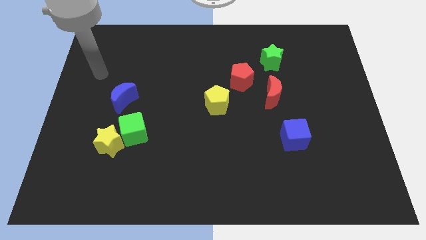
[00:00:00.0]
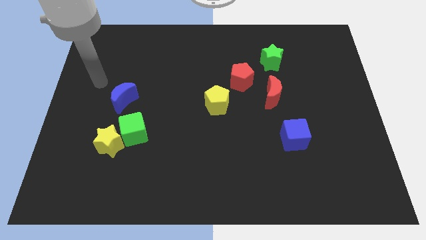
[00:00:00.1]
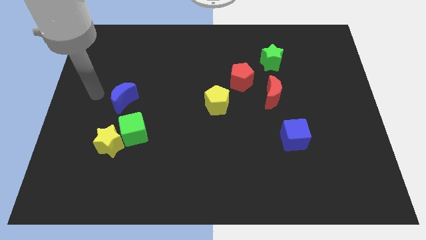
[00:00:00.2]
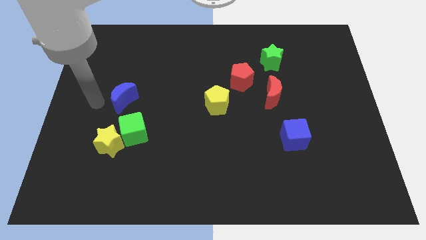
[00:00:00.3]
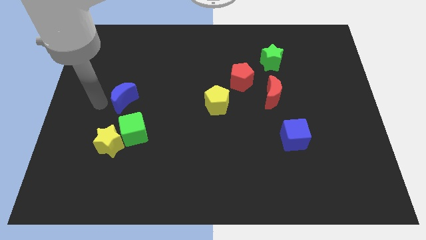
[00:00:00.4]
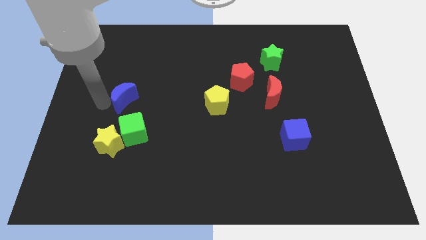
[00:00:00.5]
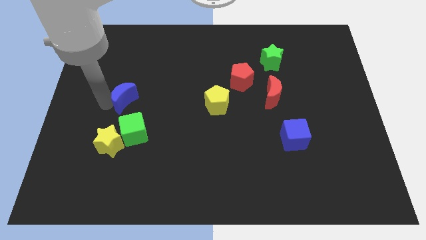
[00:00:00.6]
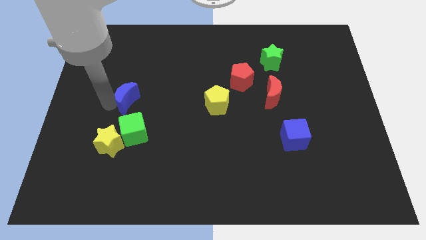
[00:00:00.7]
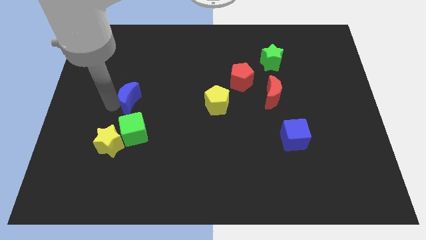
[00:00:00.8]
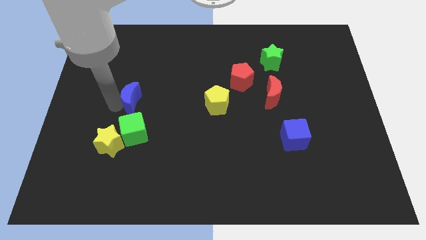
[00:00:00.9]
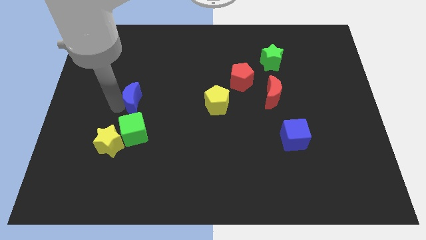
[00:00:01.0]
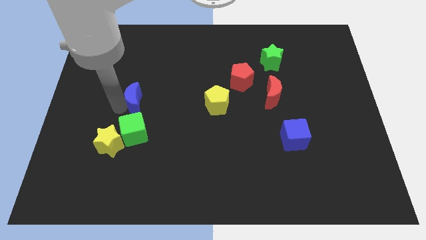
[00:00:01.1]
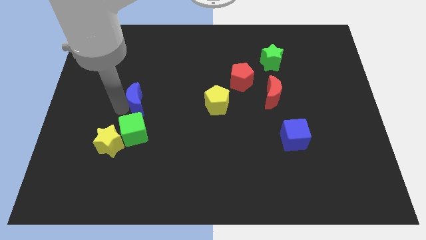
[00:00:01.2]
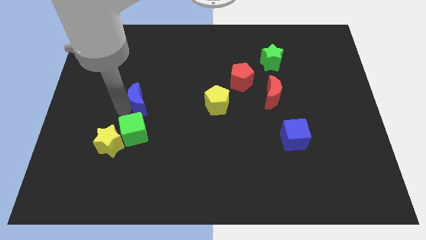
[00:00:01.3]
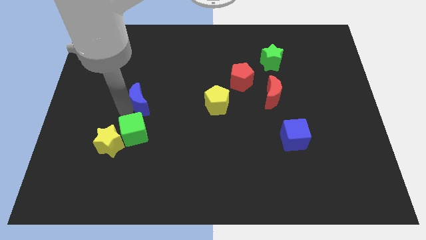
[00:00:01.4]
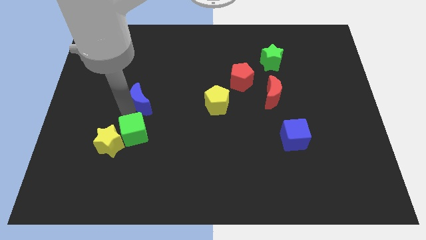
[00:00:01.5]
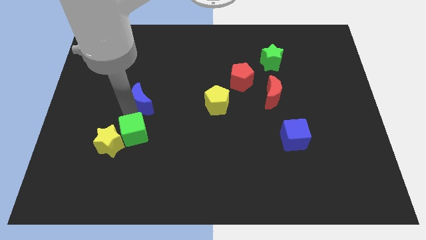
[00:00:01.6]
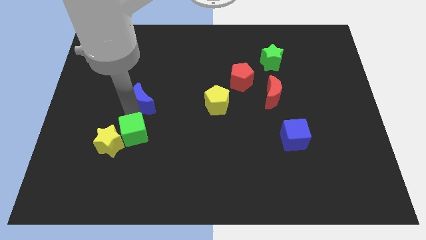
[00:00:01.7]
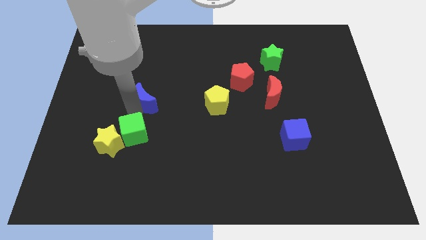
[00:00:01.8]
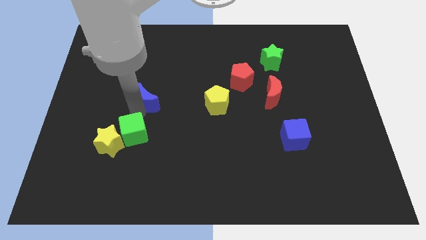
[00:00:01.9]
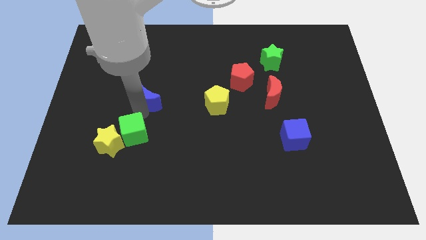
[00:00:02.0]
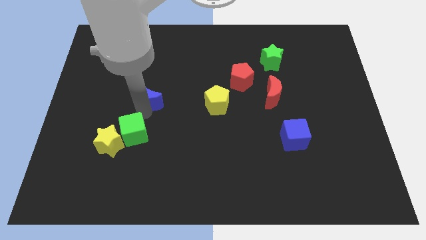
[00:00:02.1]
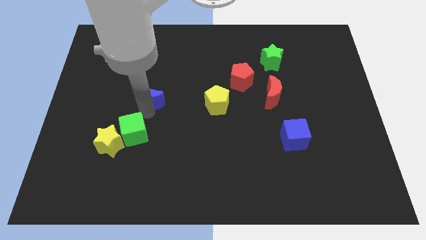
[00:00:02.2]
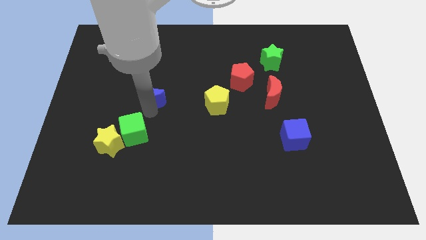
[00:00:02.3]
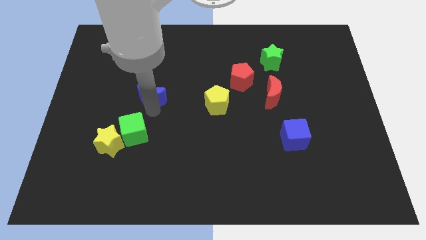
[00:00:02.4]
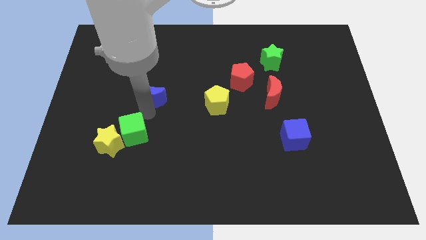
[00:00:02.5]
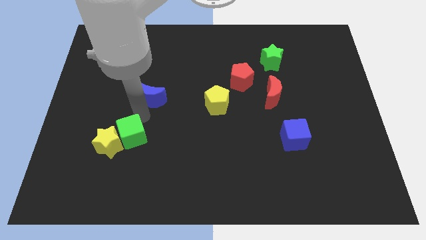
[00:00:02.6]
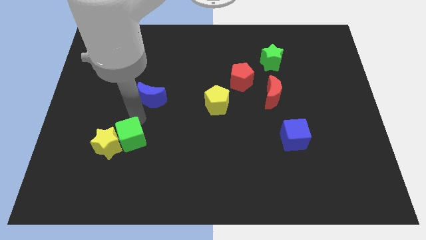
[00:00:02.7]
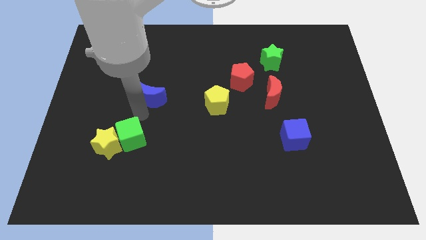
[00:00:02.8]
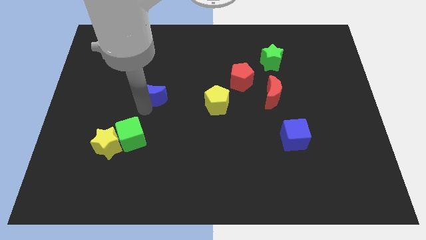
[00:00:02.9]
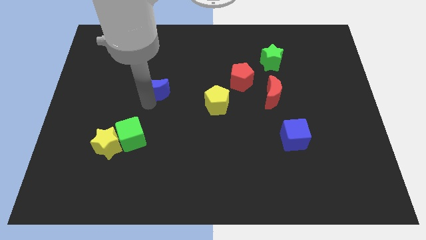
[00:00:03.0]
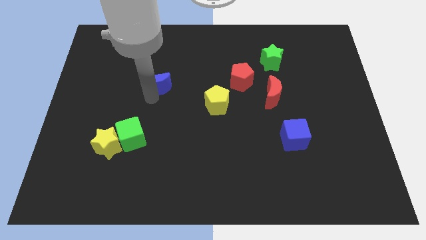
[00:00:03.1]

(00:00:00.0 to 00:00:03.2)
push the blue moon diagonally up and right somewhat

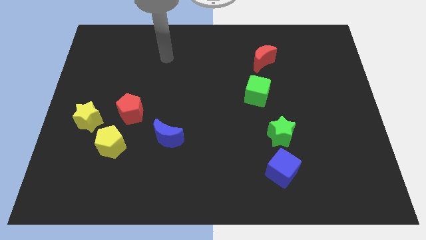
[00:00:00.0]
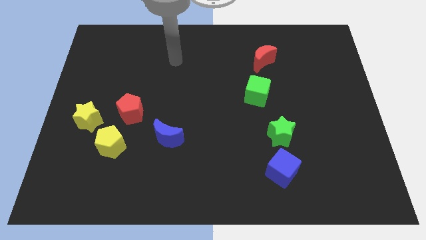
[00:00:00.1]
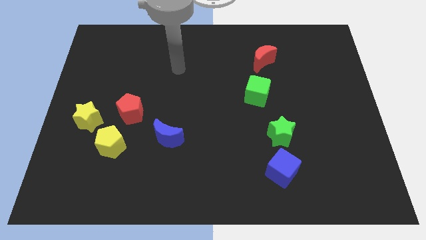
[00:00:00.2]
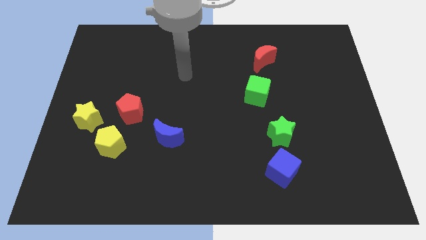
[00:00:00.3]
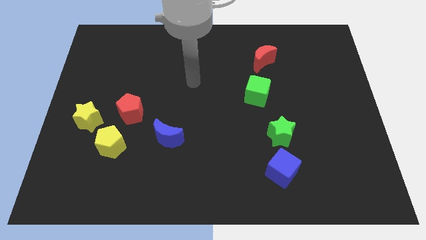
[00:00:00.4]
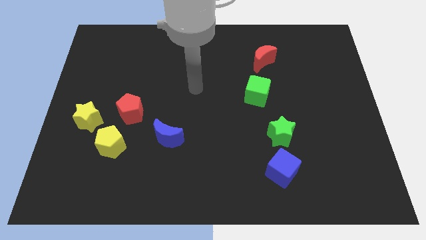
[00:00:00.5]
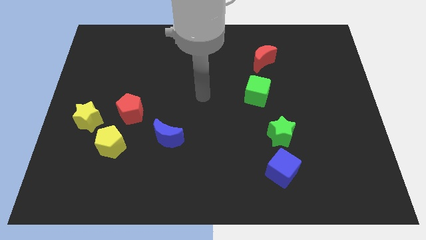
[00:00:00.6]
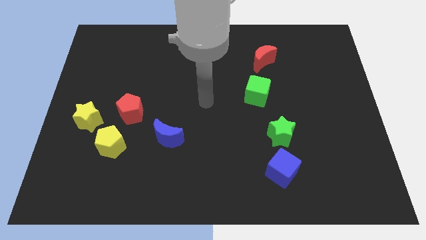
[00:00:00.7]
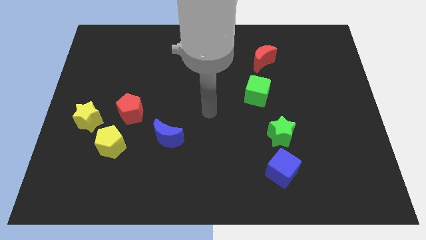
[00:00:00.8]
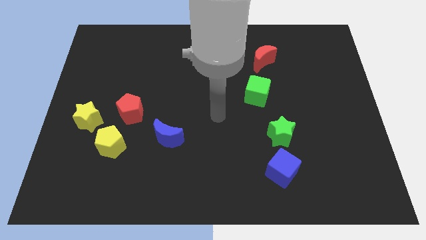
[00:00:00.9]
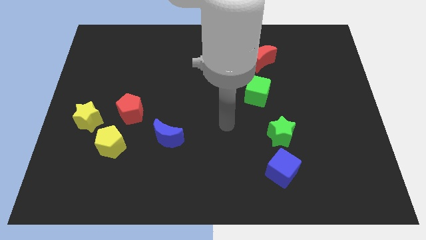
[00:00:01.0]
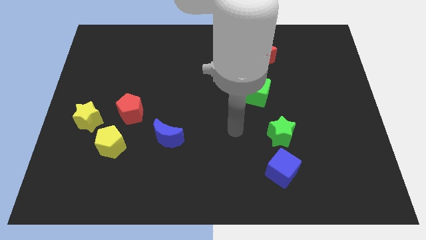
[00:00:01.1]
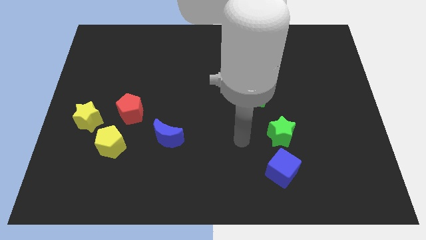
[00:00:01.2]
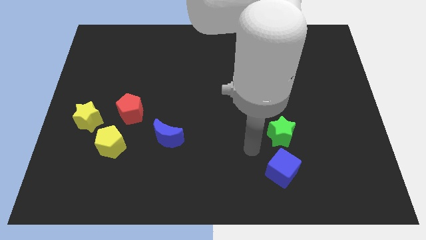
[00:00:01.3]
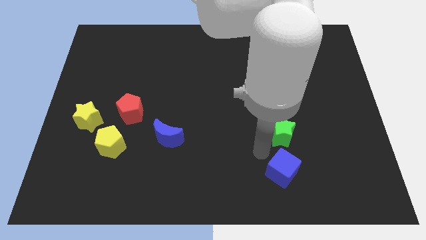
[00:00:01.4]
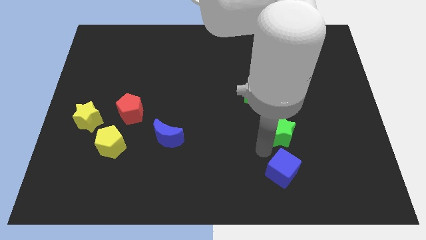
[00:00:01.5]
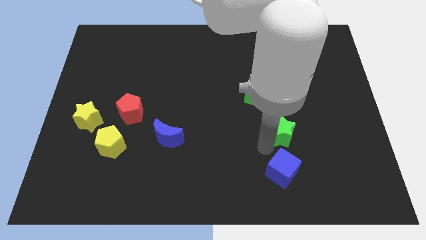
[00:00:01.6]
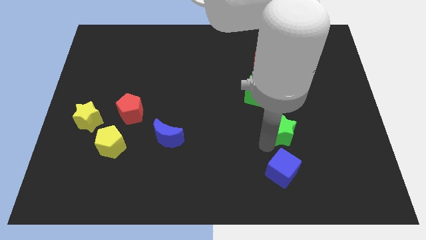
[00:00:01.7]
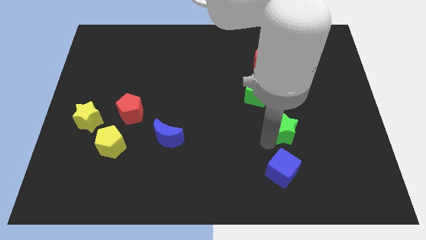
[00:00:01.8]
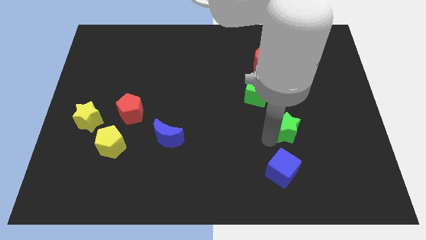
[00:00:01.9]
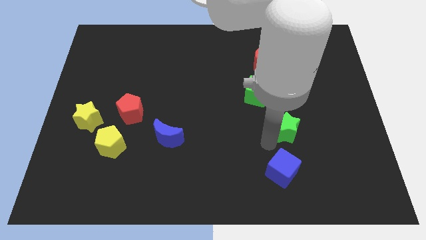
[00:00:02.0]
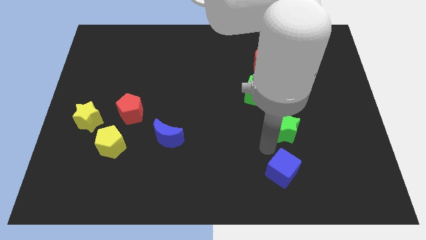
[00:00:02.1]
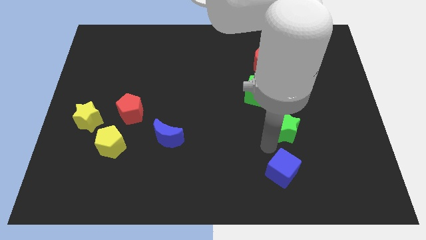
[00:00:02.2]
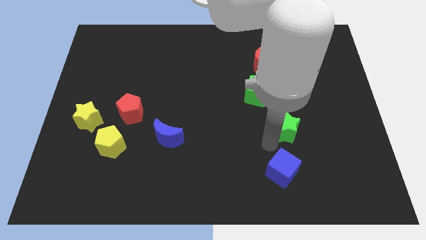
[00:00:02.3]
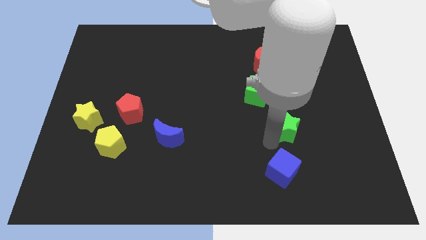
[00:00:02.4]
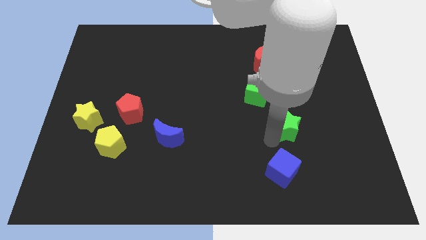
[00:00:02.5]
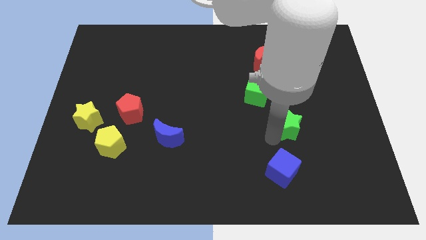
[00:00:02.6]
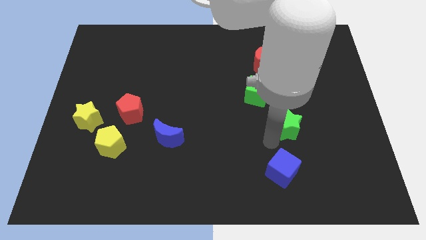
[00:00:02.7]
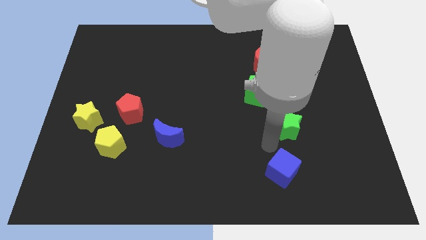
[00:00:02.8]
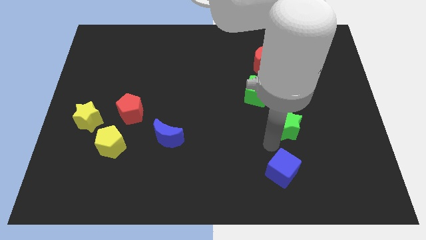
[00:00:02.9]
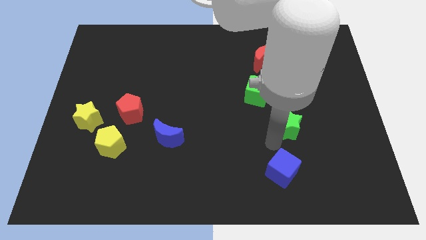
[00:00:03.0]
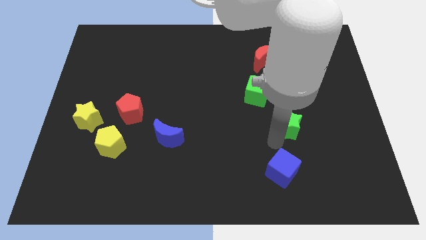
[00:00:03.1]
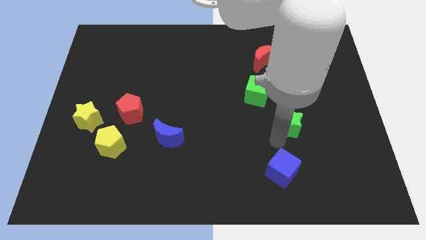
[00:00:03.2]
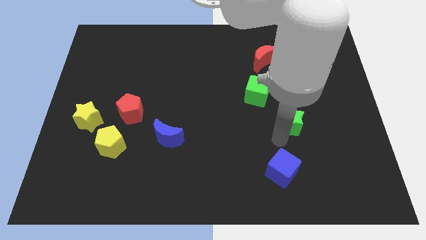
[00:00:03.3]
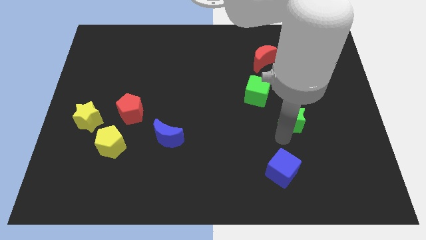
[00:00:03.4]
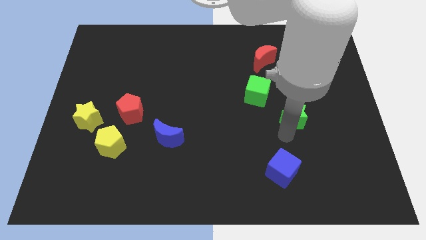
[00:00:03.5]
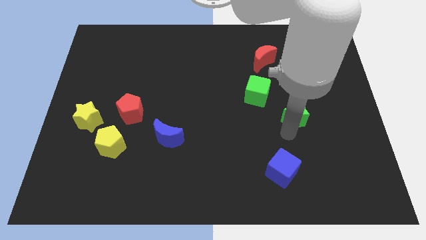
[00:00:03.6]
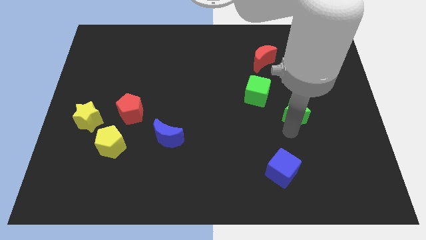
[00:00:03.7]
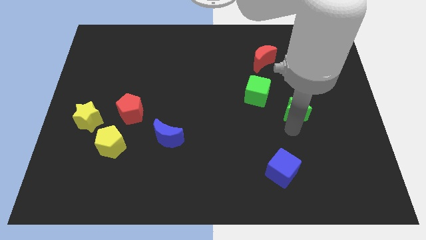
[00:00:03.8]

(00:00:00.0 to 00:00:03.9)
slightly slide the green star up and right

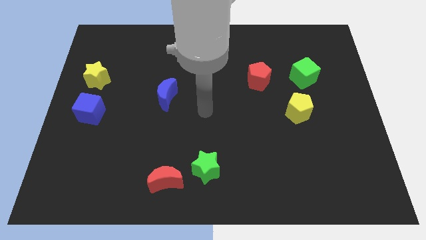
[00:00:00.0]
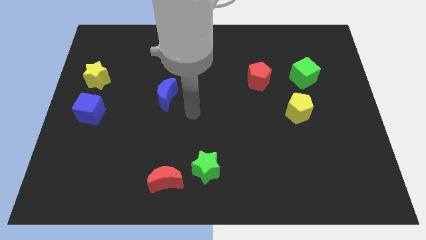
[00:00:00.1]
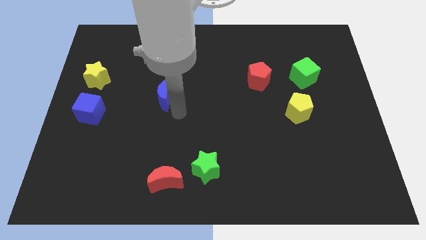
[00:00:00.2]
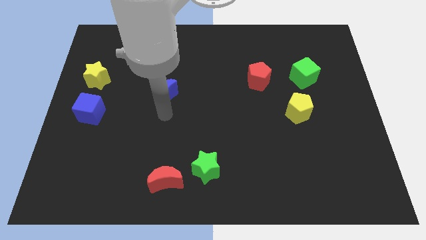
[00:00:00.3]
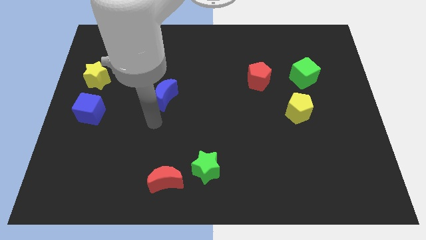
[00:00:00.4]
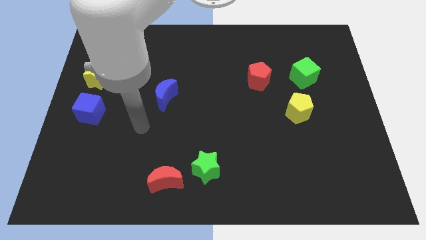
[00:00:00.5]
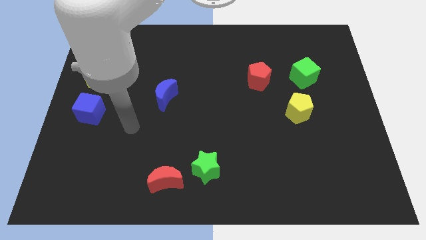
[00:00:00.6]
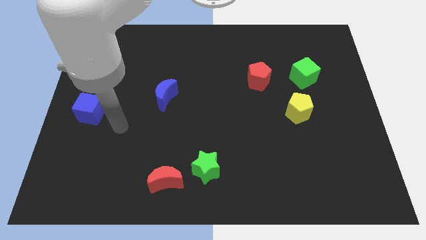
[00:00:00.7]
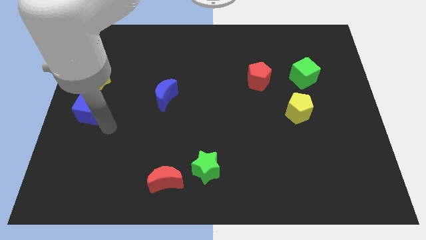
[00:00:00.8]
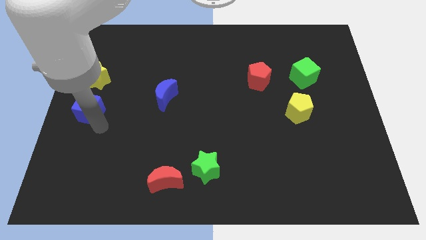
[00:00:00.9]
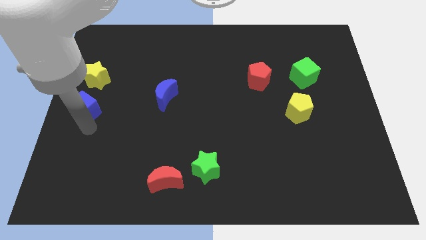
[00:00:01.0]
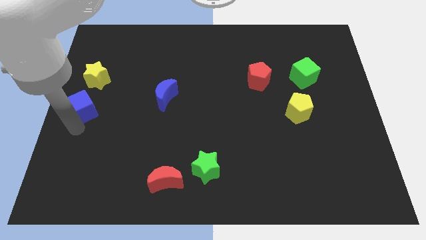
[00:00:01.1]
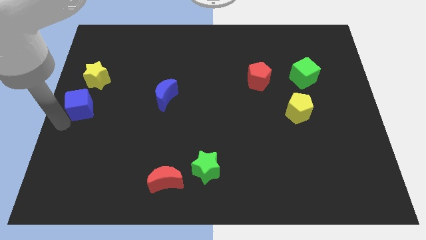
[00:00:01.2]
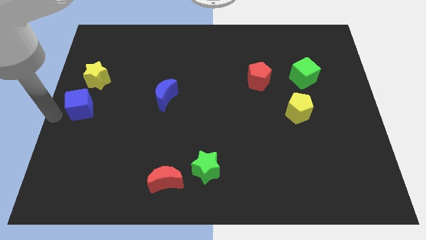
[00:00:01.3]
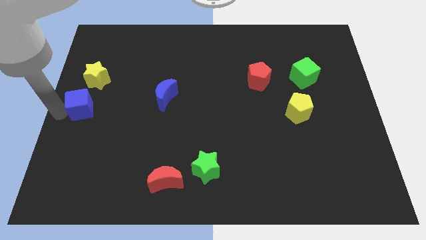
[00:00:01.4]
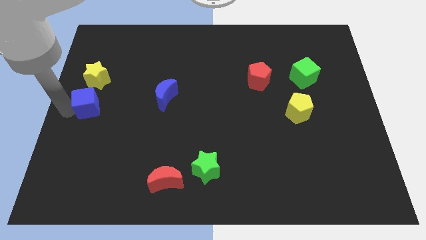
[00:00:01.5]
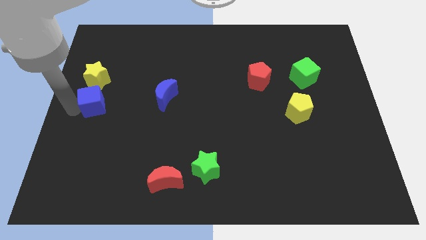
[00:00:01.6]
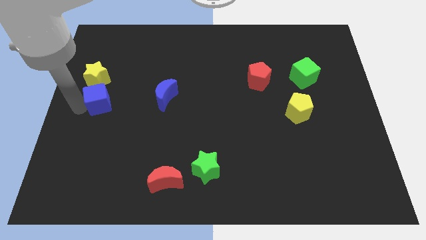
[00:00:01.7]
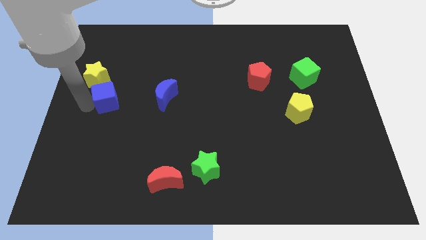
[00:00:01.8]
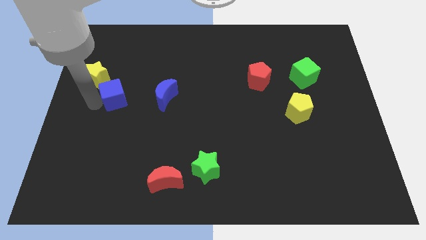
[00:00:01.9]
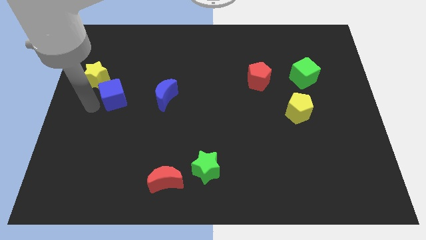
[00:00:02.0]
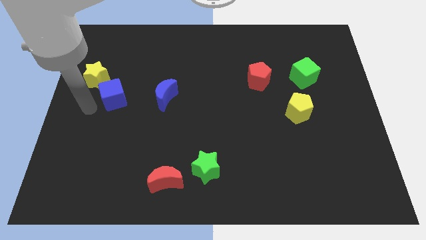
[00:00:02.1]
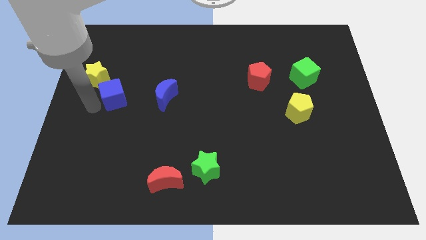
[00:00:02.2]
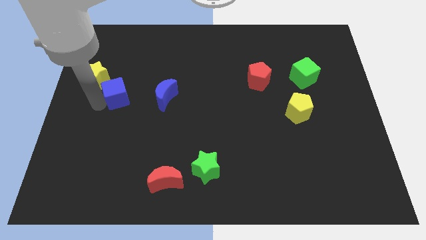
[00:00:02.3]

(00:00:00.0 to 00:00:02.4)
push the blue cube somewhat up and right diagonally
